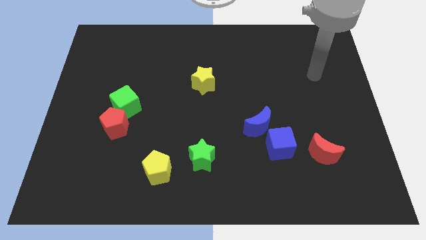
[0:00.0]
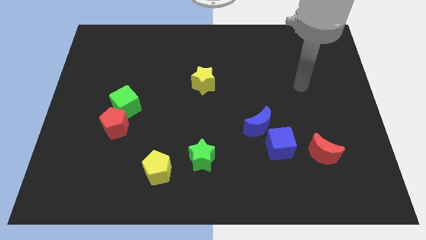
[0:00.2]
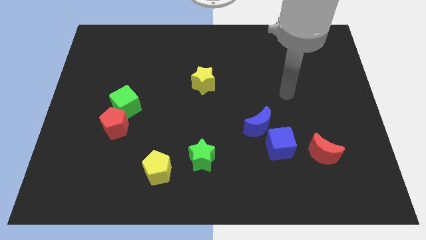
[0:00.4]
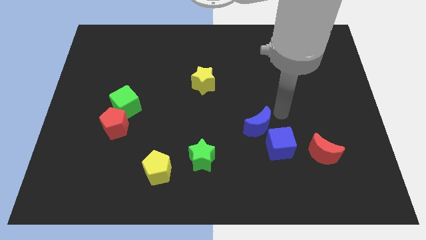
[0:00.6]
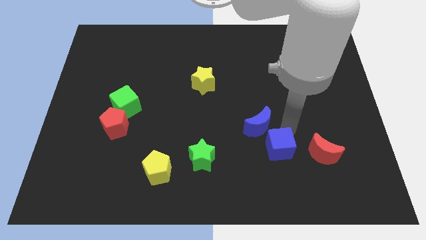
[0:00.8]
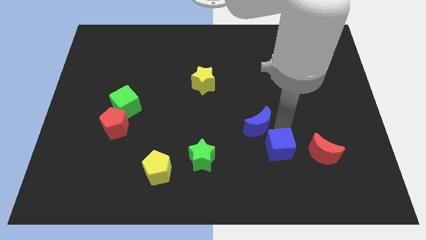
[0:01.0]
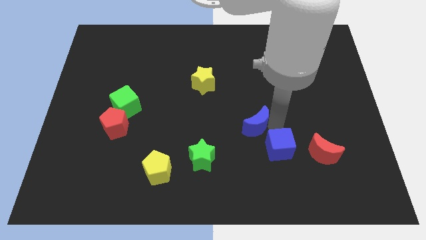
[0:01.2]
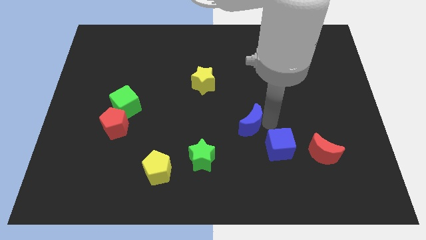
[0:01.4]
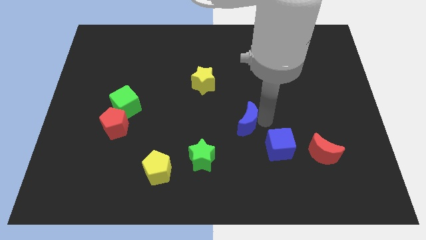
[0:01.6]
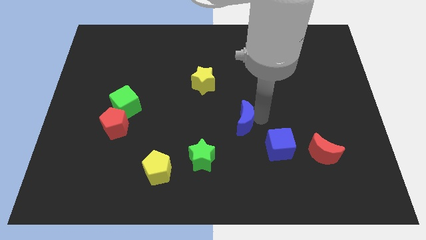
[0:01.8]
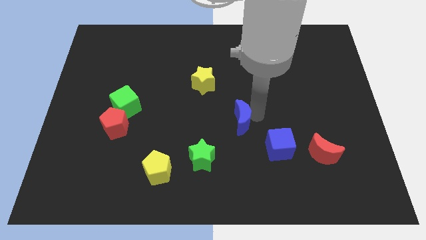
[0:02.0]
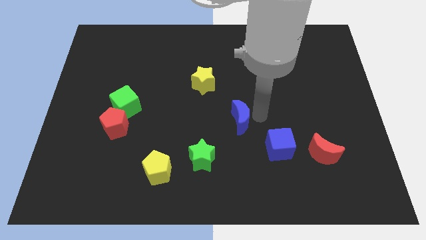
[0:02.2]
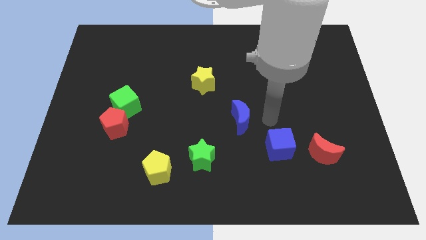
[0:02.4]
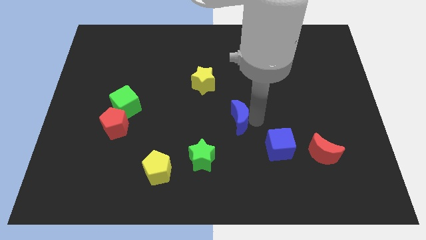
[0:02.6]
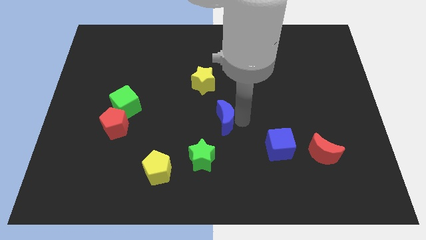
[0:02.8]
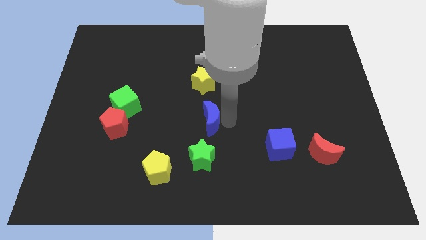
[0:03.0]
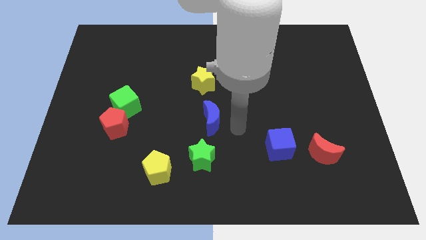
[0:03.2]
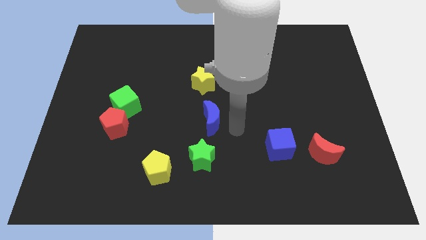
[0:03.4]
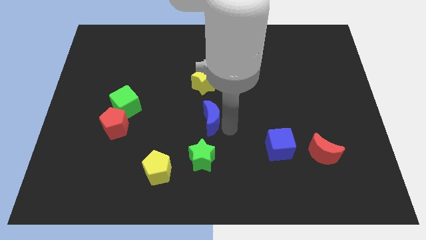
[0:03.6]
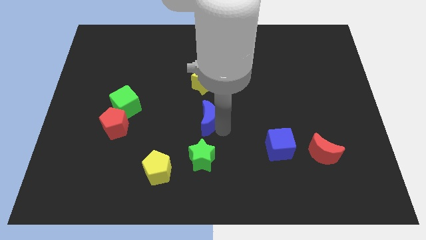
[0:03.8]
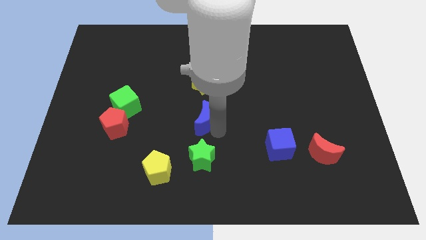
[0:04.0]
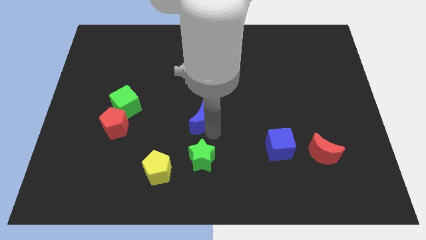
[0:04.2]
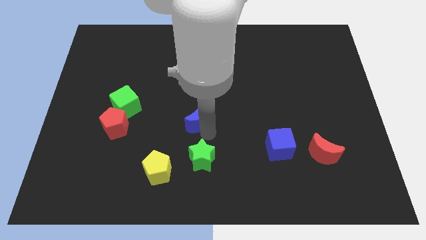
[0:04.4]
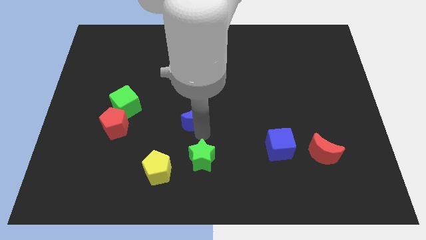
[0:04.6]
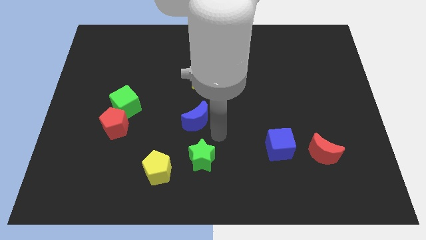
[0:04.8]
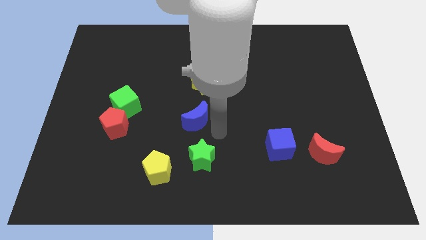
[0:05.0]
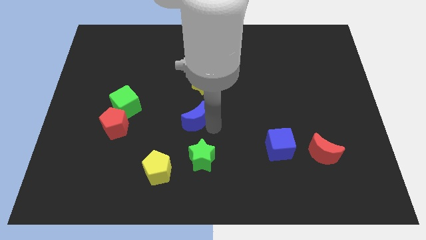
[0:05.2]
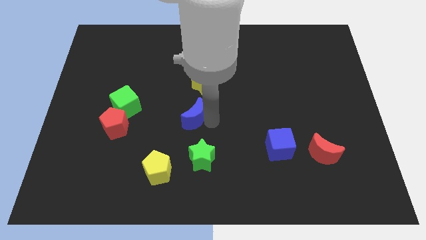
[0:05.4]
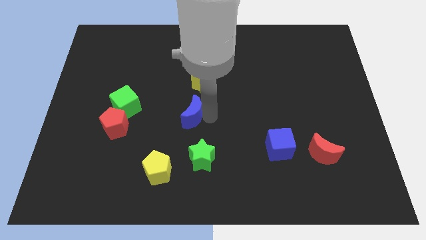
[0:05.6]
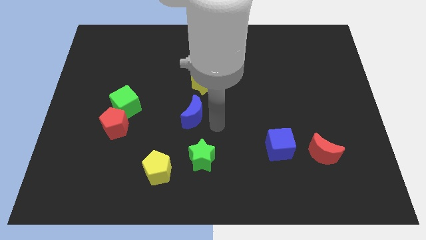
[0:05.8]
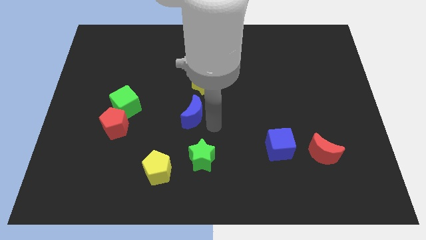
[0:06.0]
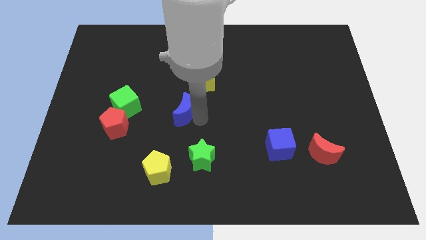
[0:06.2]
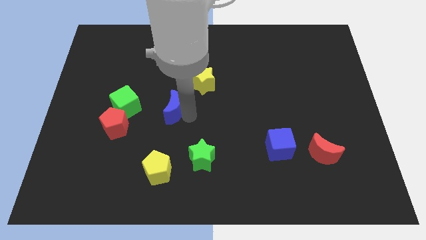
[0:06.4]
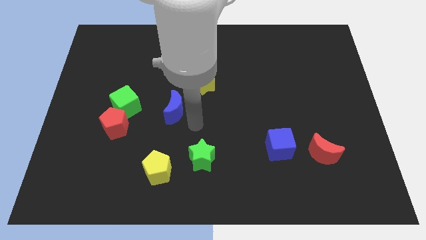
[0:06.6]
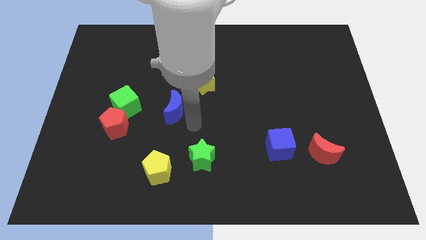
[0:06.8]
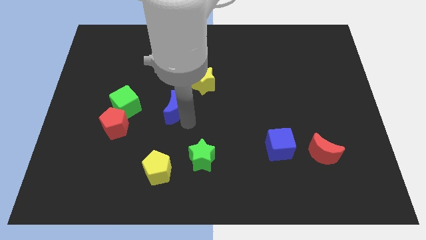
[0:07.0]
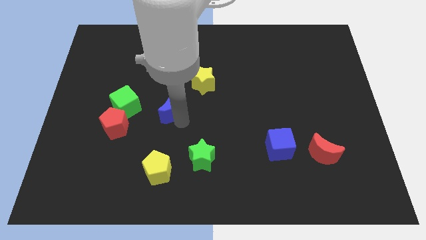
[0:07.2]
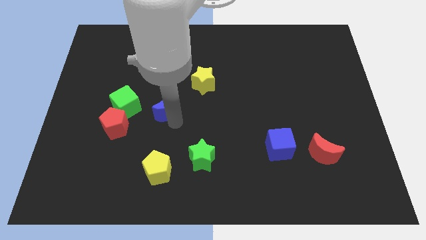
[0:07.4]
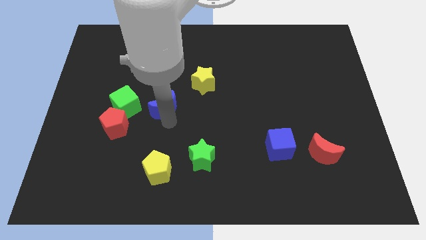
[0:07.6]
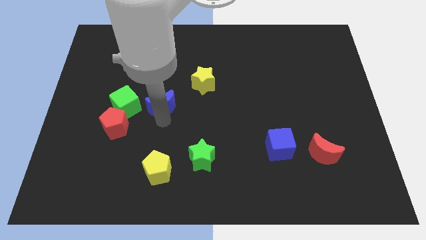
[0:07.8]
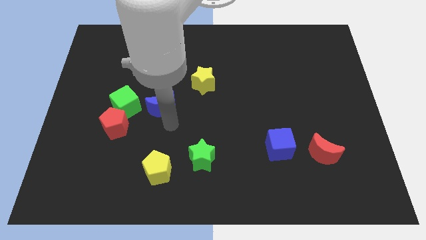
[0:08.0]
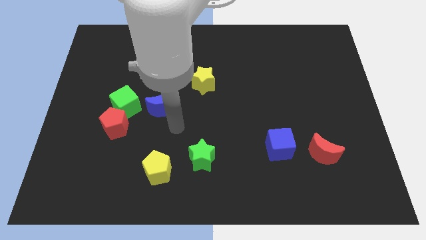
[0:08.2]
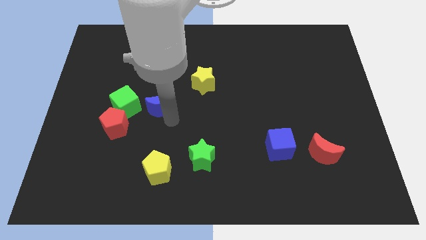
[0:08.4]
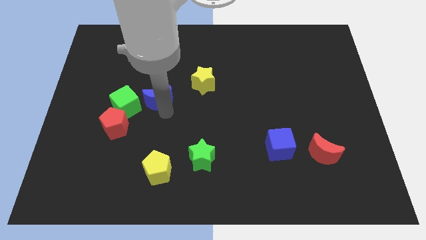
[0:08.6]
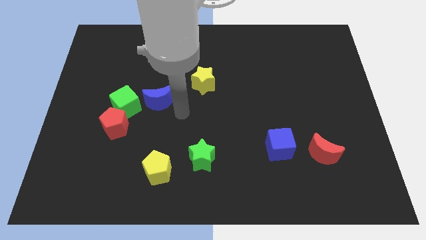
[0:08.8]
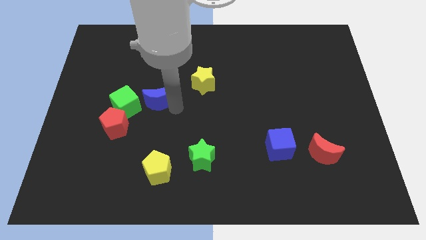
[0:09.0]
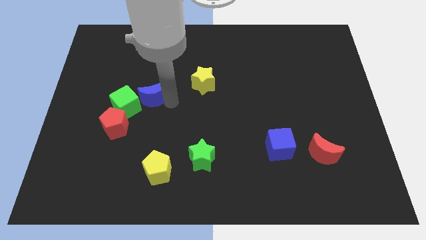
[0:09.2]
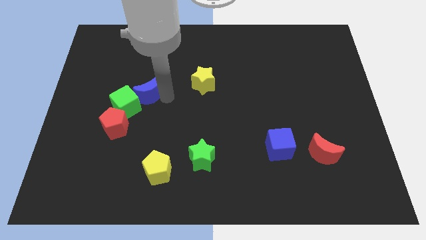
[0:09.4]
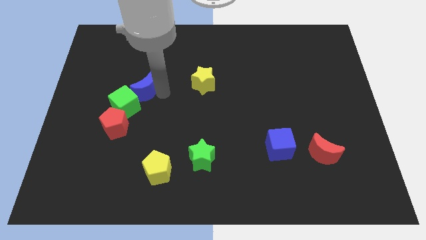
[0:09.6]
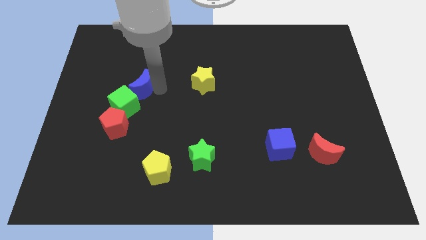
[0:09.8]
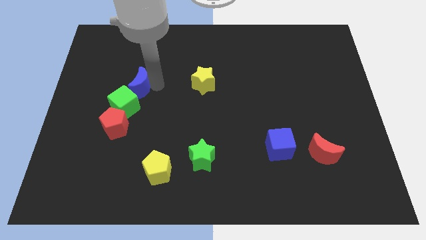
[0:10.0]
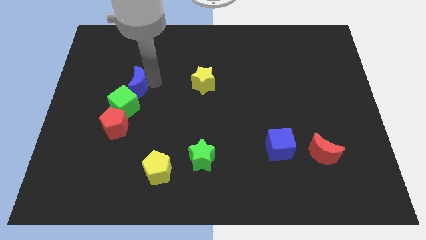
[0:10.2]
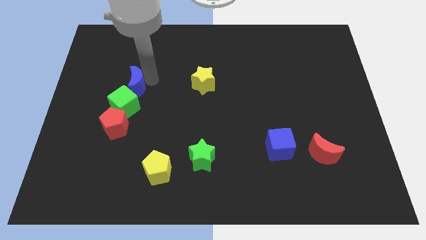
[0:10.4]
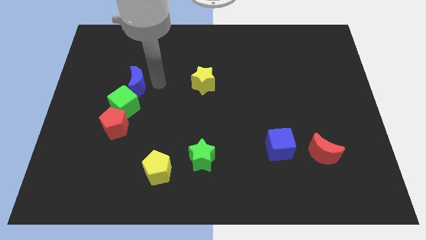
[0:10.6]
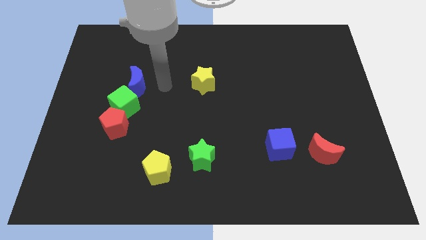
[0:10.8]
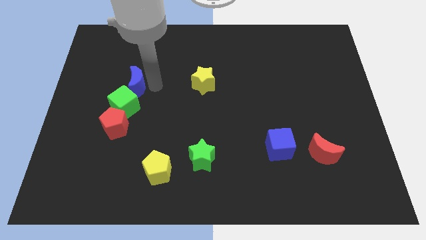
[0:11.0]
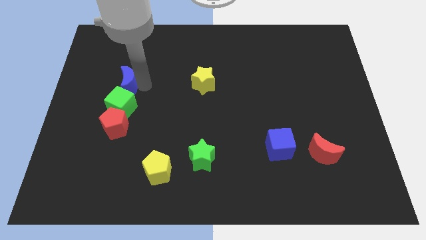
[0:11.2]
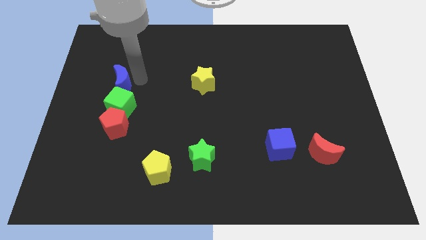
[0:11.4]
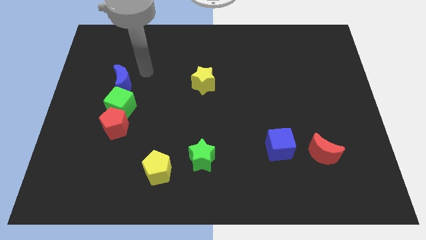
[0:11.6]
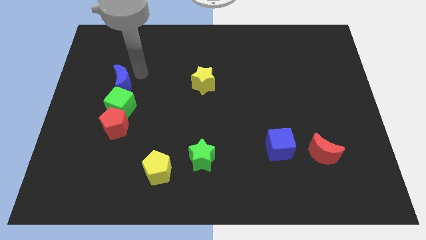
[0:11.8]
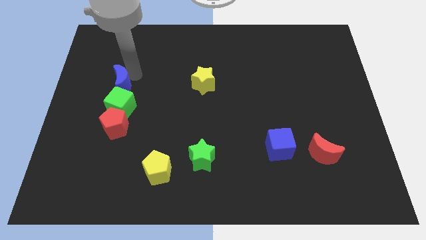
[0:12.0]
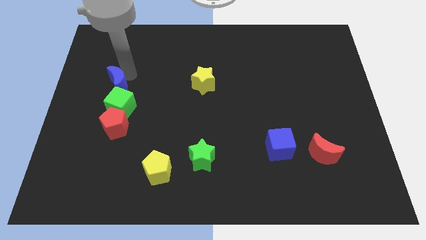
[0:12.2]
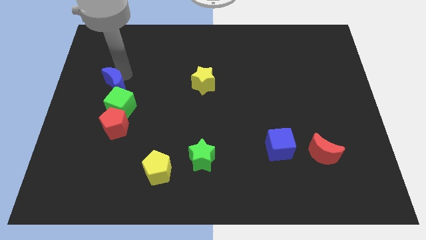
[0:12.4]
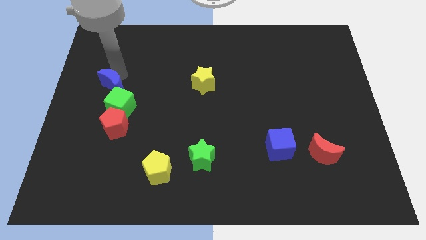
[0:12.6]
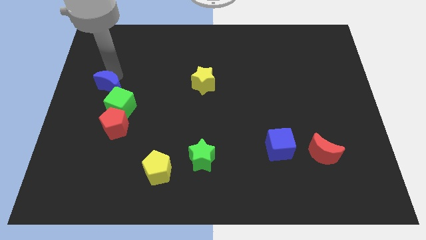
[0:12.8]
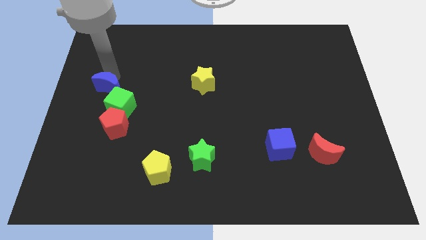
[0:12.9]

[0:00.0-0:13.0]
push the blue moon to the left side of the board
